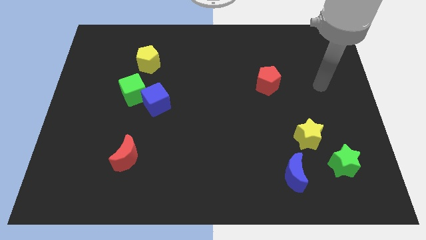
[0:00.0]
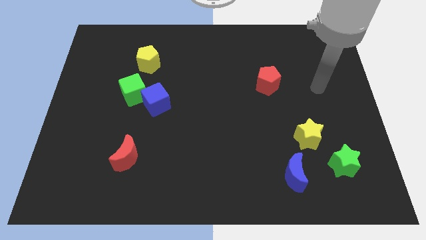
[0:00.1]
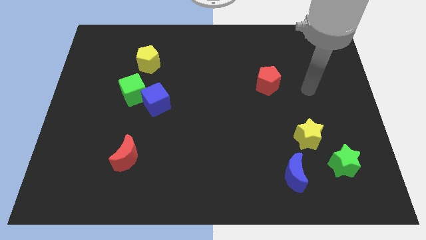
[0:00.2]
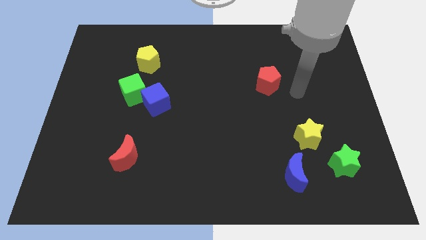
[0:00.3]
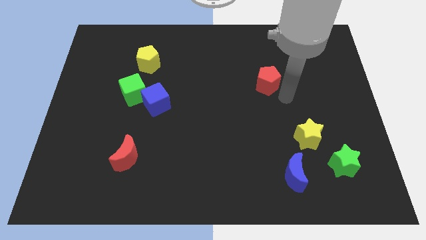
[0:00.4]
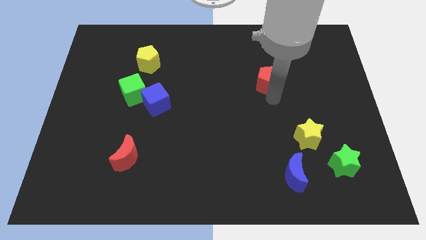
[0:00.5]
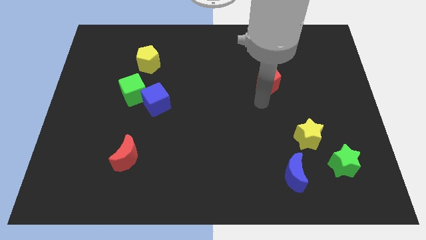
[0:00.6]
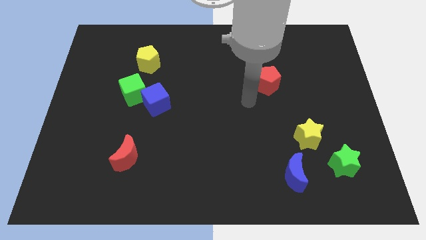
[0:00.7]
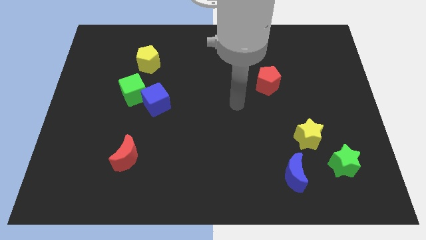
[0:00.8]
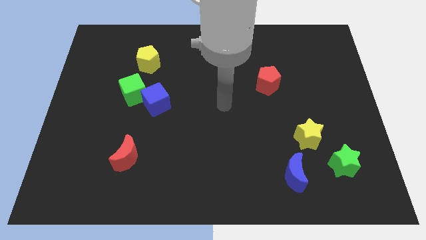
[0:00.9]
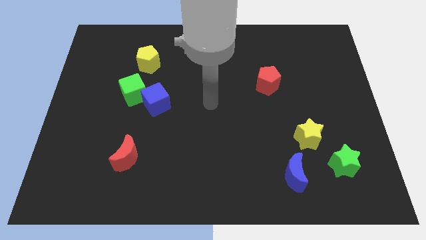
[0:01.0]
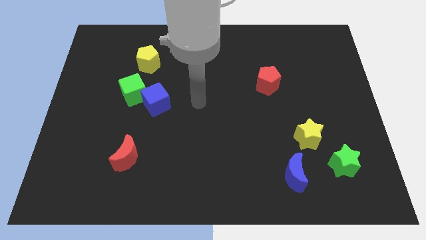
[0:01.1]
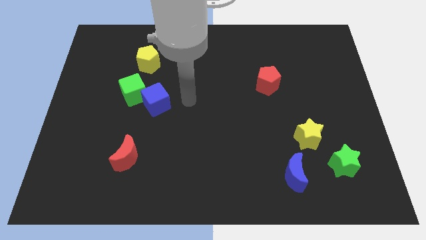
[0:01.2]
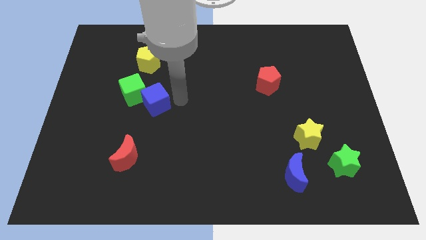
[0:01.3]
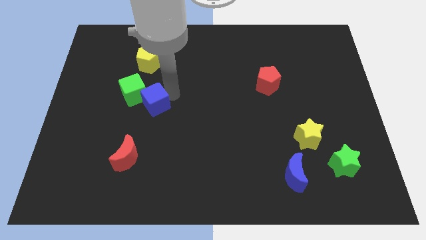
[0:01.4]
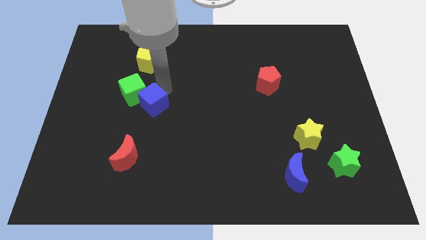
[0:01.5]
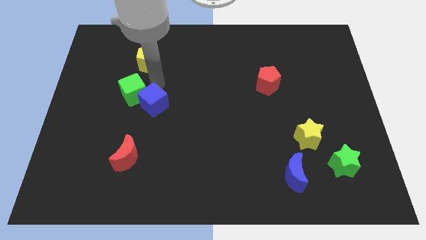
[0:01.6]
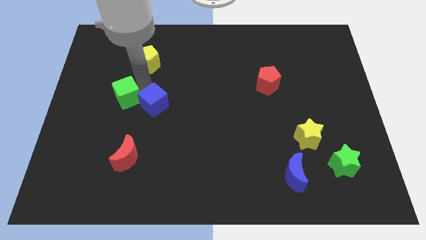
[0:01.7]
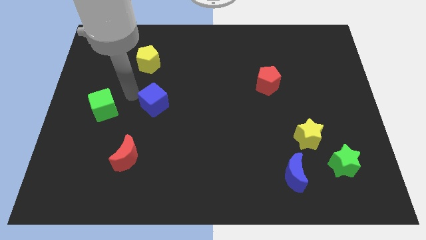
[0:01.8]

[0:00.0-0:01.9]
separate the blue cube from the green cube

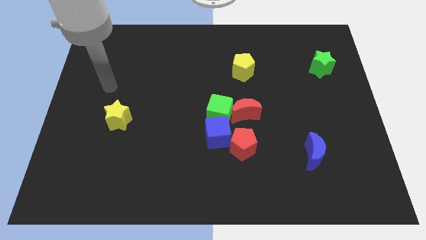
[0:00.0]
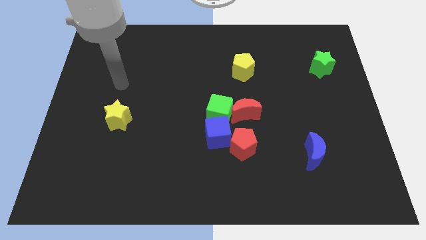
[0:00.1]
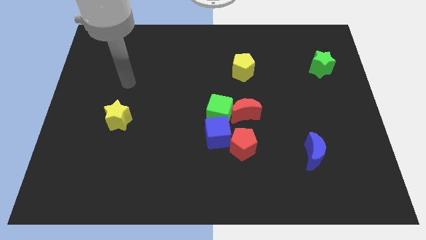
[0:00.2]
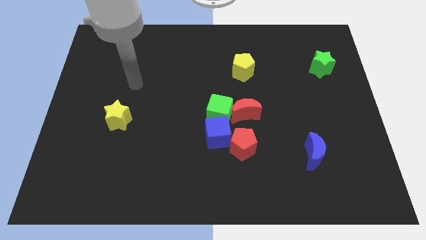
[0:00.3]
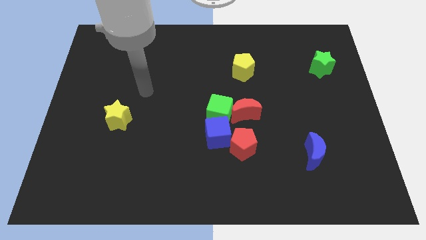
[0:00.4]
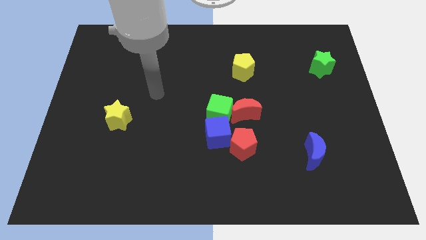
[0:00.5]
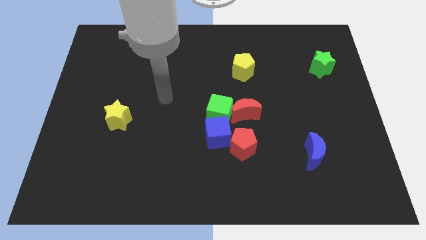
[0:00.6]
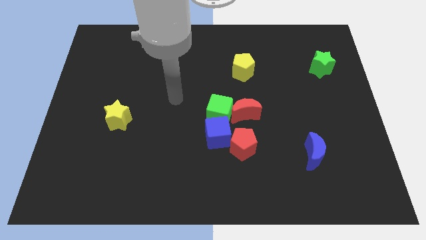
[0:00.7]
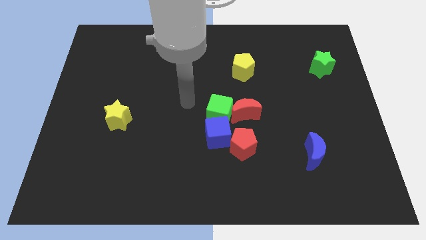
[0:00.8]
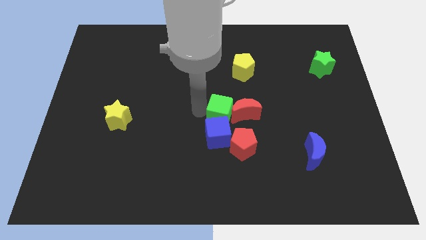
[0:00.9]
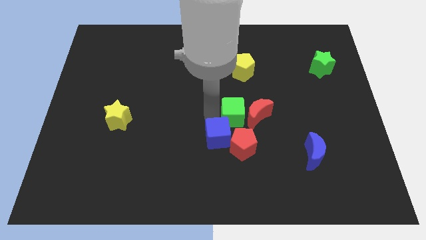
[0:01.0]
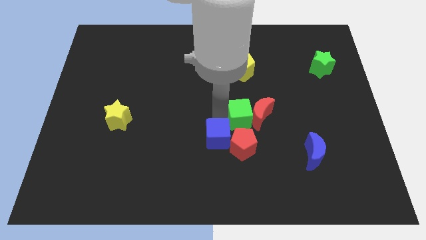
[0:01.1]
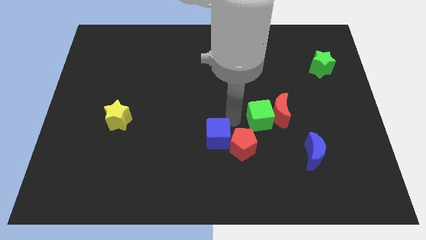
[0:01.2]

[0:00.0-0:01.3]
separate the blue cube from the green cube, red pentagon, and red moon

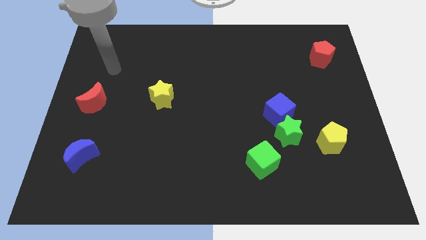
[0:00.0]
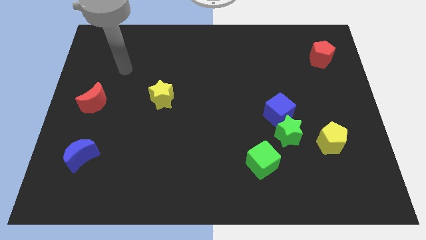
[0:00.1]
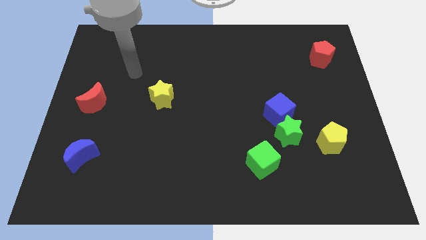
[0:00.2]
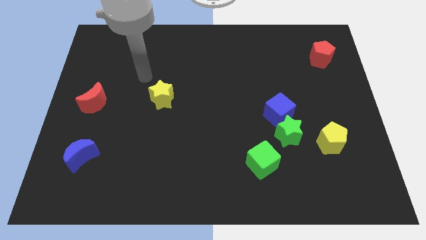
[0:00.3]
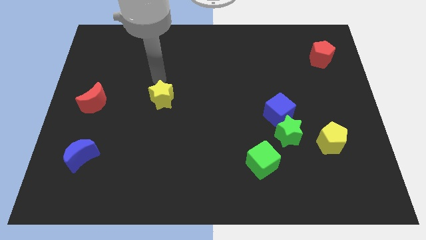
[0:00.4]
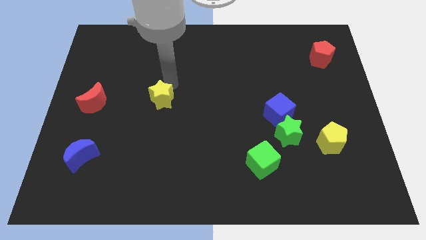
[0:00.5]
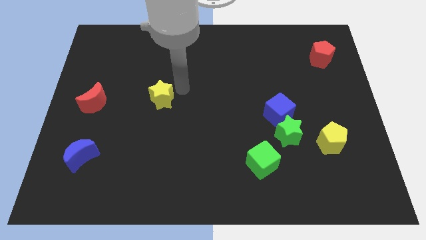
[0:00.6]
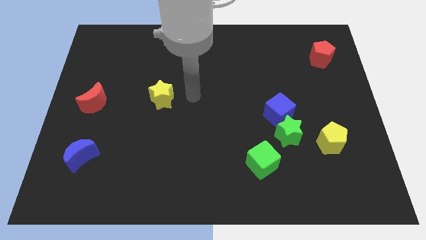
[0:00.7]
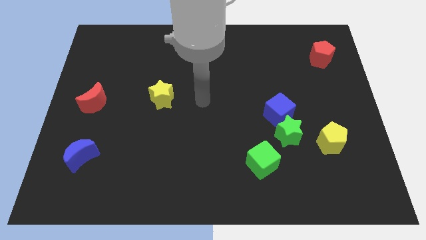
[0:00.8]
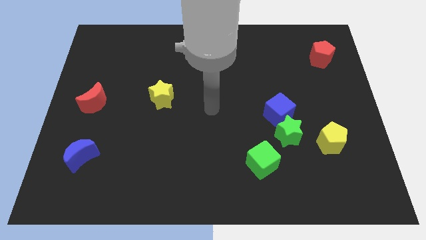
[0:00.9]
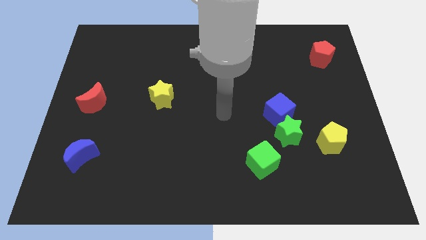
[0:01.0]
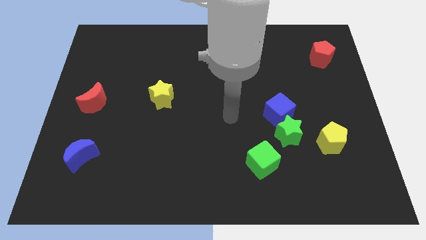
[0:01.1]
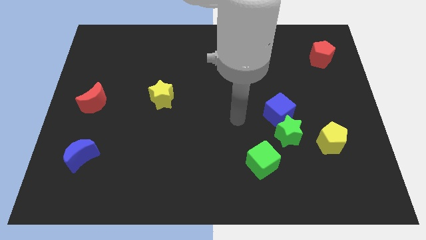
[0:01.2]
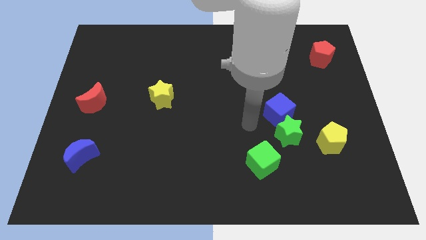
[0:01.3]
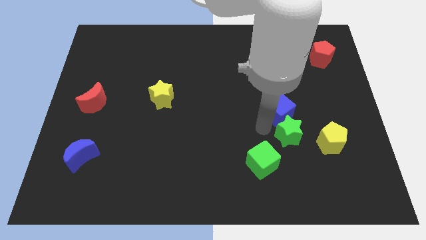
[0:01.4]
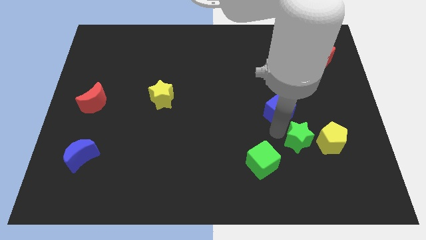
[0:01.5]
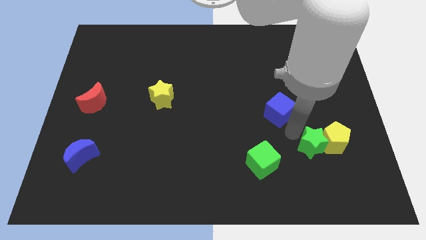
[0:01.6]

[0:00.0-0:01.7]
move the blue cube away from the green star

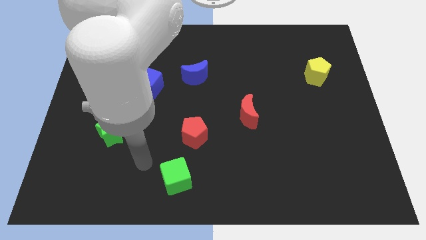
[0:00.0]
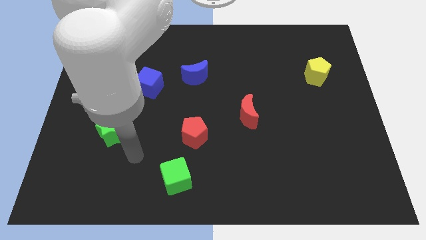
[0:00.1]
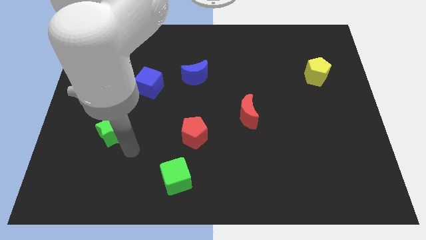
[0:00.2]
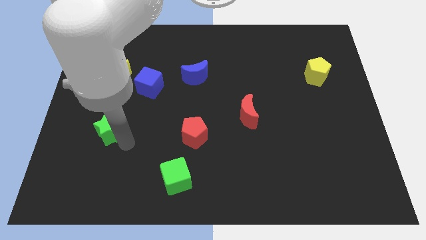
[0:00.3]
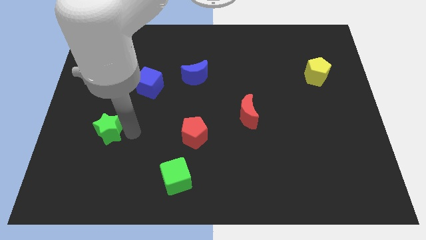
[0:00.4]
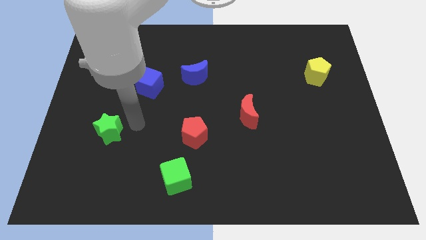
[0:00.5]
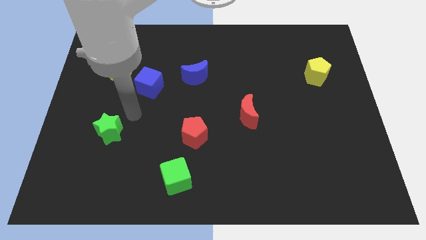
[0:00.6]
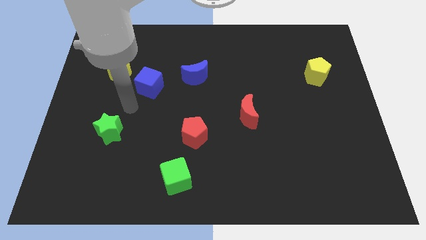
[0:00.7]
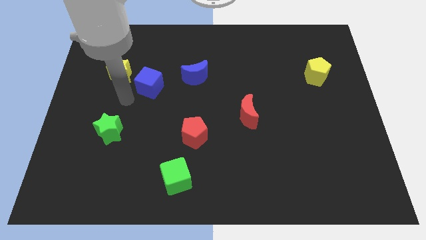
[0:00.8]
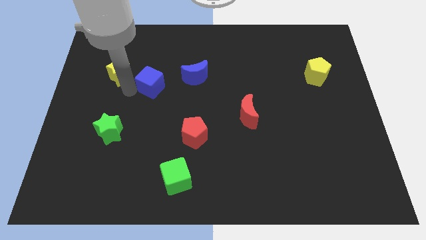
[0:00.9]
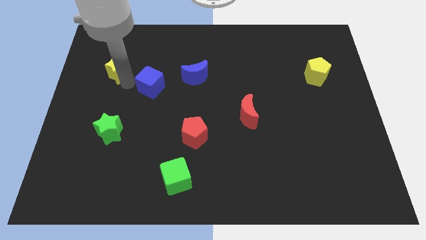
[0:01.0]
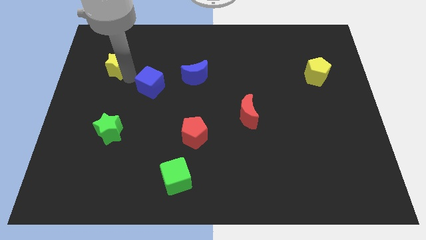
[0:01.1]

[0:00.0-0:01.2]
separate the blue cube from the yellow star

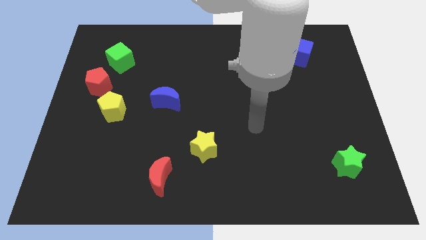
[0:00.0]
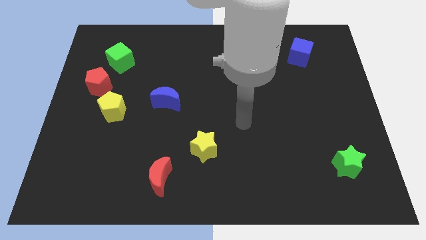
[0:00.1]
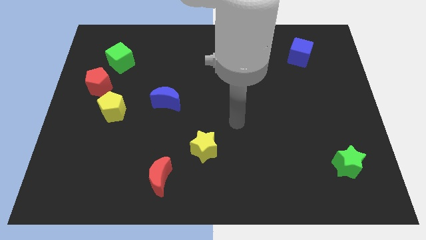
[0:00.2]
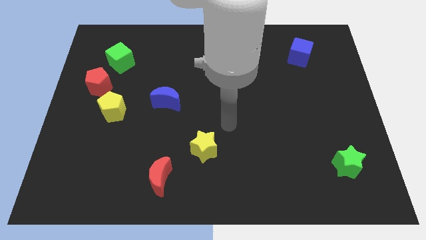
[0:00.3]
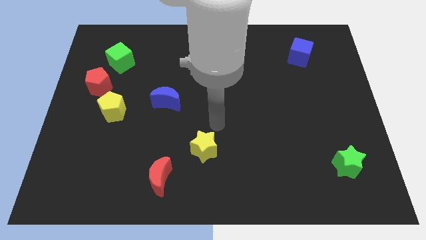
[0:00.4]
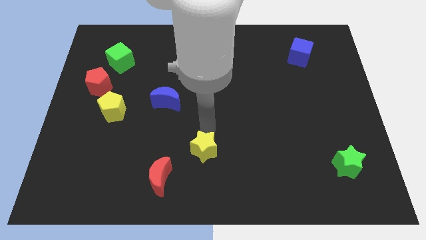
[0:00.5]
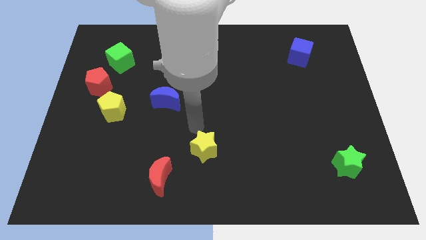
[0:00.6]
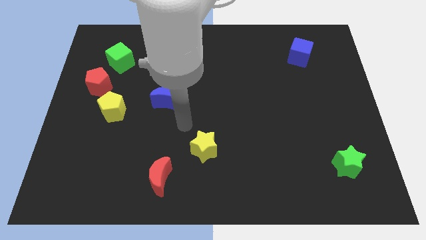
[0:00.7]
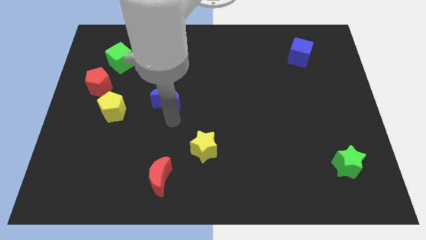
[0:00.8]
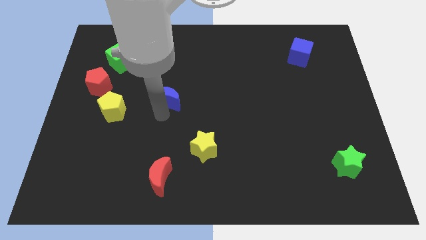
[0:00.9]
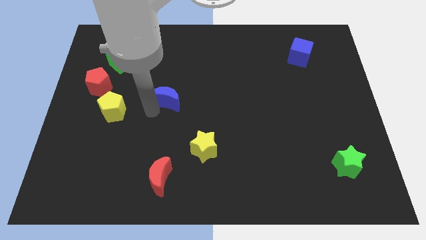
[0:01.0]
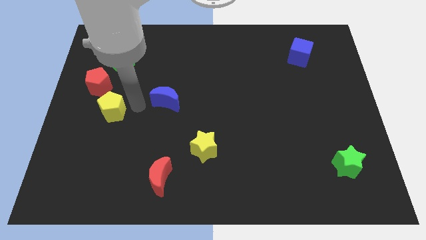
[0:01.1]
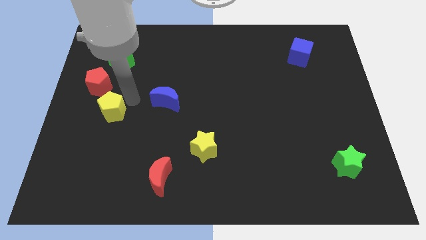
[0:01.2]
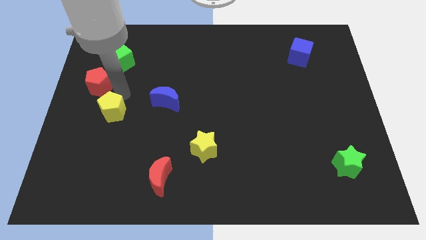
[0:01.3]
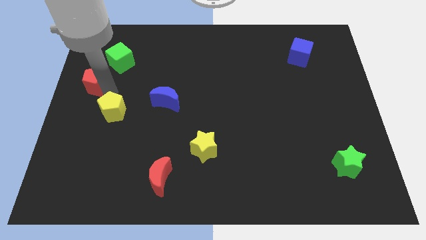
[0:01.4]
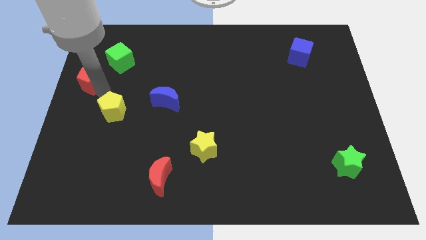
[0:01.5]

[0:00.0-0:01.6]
pull the yellow pentagon apart from the red pentagon

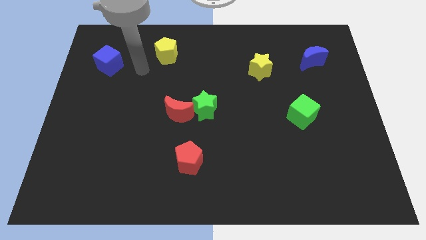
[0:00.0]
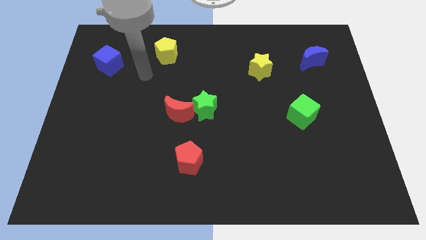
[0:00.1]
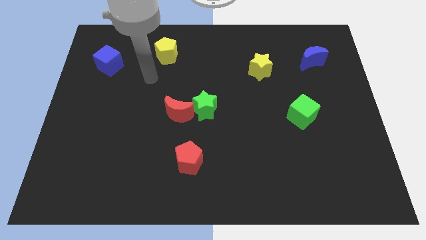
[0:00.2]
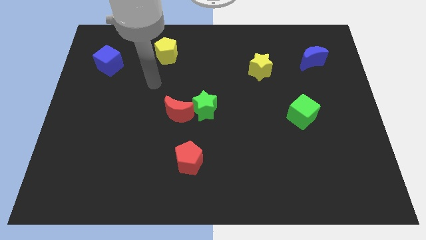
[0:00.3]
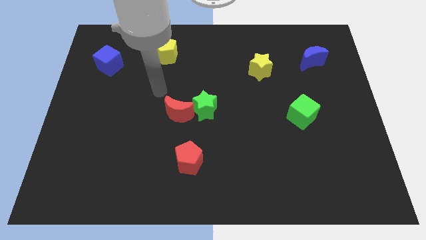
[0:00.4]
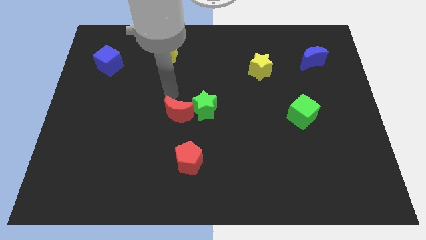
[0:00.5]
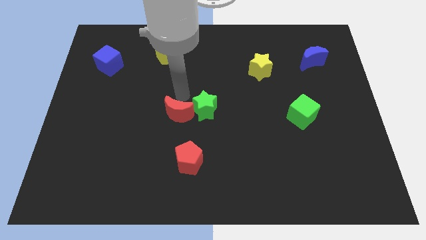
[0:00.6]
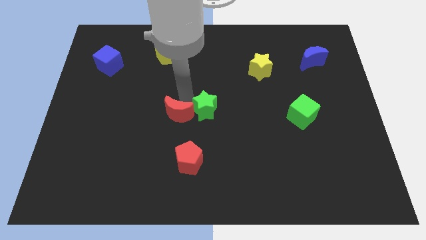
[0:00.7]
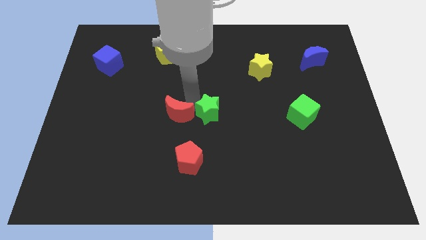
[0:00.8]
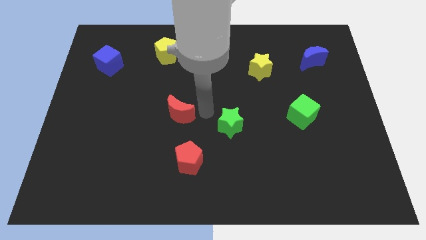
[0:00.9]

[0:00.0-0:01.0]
pull the red moon apart from the green star

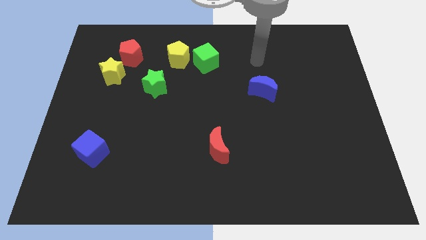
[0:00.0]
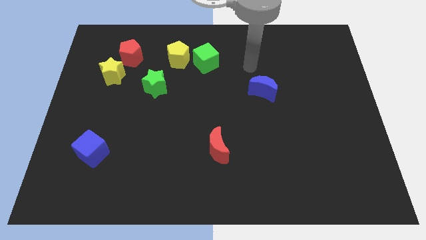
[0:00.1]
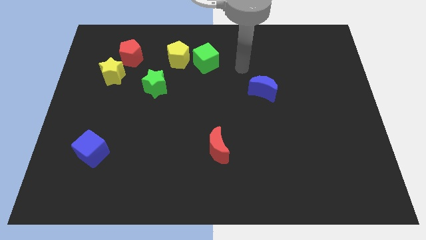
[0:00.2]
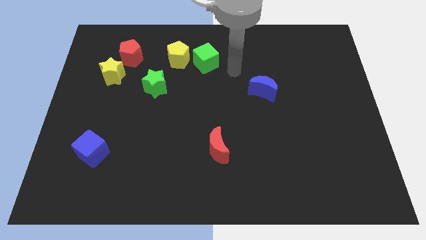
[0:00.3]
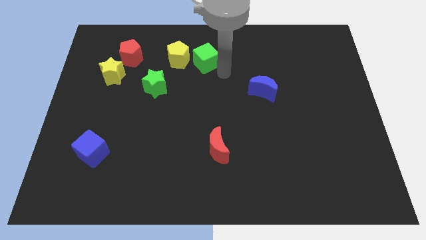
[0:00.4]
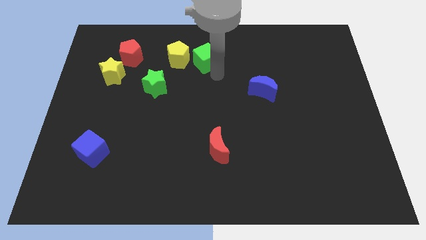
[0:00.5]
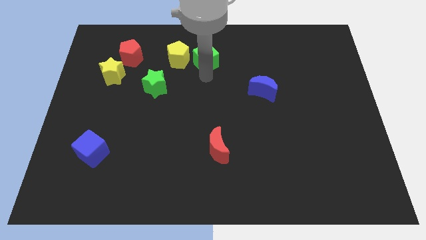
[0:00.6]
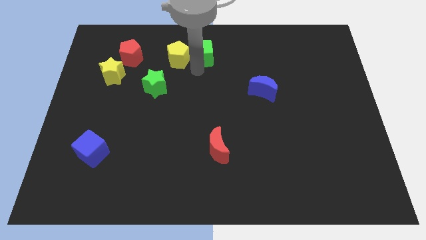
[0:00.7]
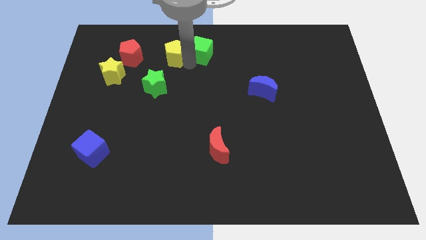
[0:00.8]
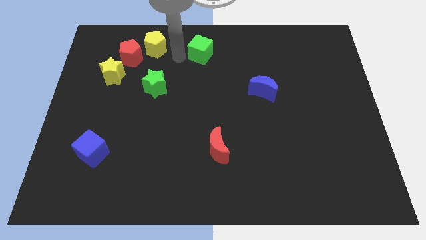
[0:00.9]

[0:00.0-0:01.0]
pull the green cube apart from the yellow pentagon
